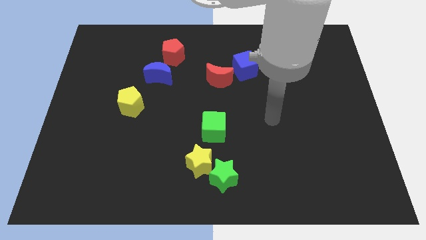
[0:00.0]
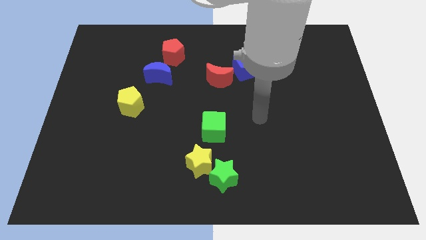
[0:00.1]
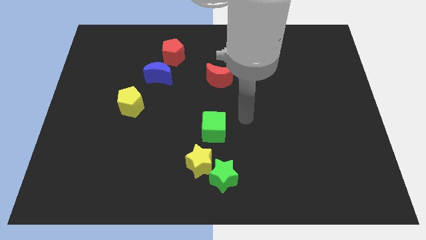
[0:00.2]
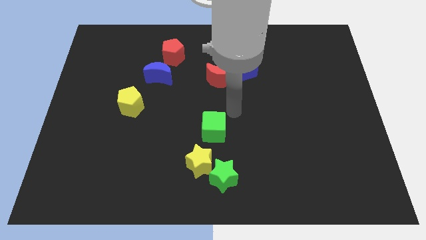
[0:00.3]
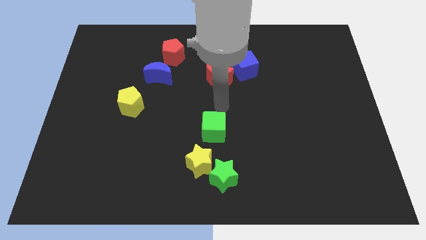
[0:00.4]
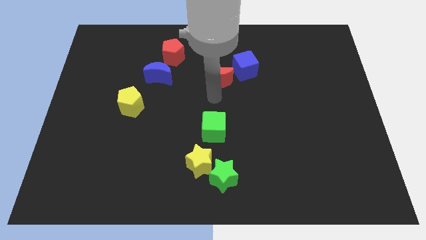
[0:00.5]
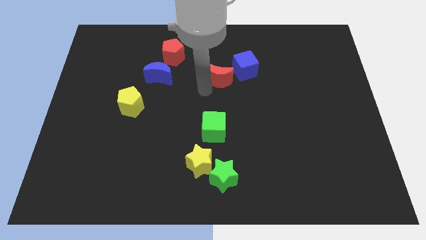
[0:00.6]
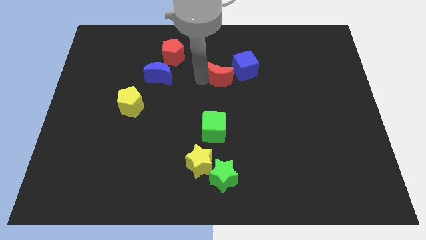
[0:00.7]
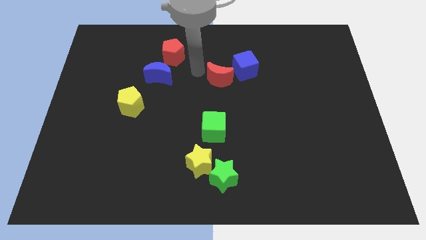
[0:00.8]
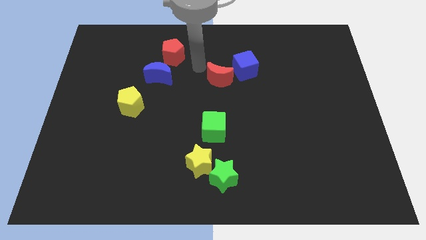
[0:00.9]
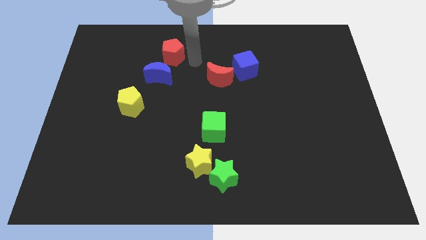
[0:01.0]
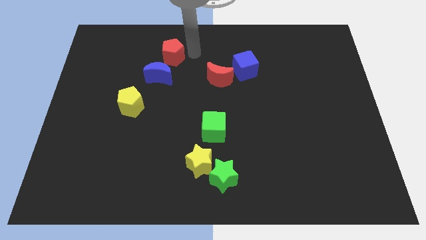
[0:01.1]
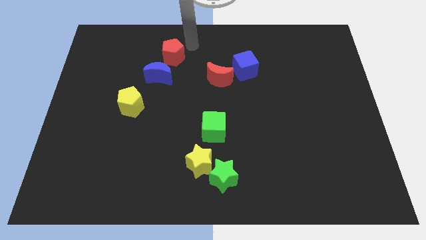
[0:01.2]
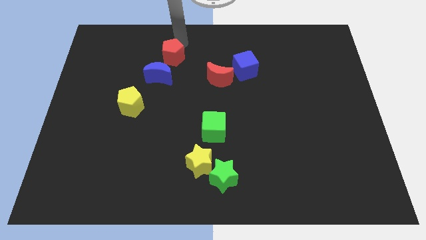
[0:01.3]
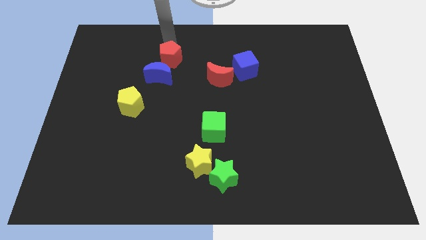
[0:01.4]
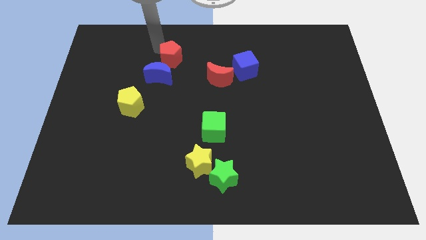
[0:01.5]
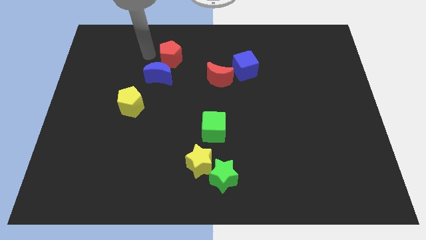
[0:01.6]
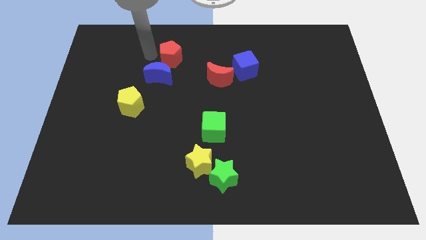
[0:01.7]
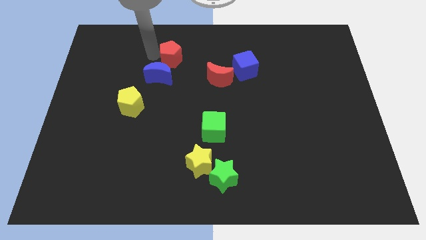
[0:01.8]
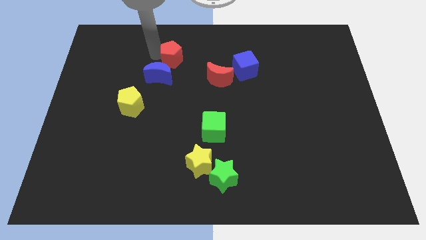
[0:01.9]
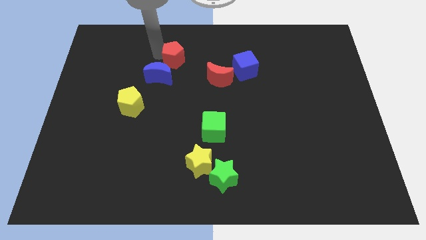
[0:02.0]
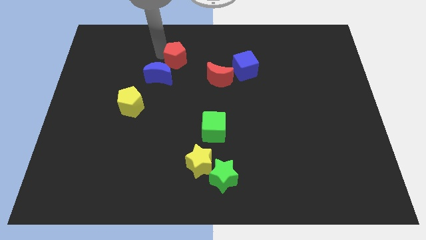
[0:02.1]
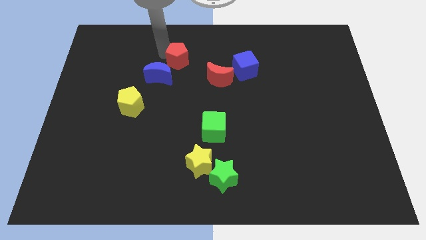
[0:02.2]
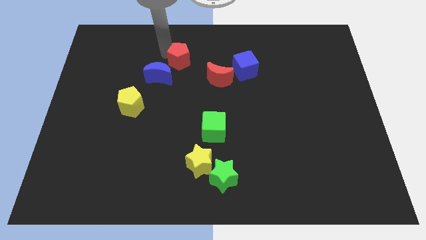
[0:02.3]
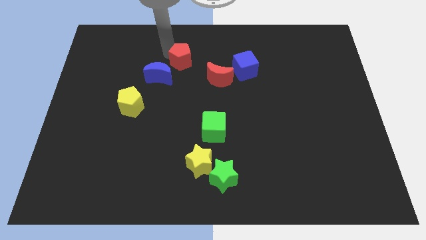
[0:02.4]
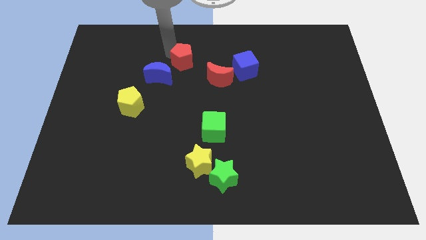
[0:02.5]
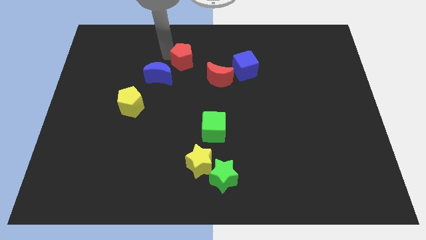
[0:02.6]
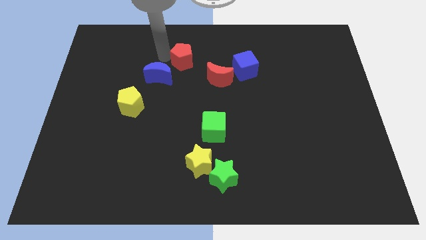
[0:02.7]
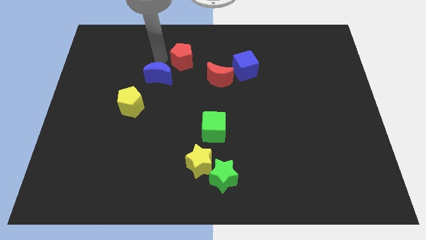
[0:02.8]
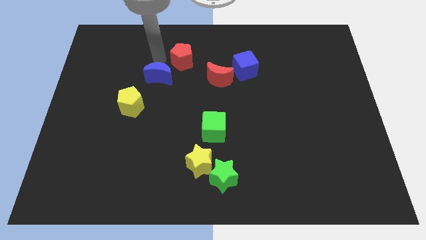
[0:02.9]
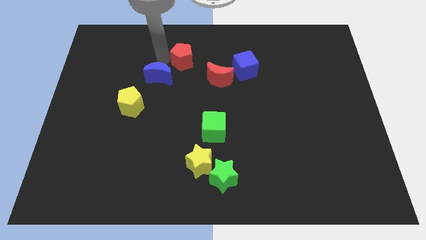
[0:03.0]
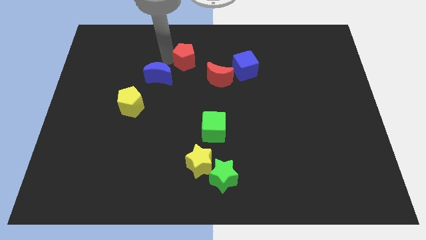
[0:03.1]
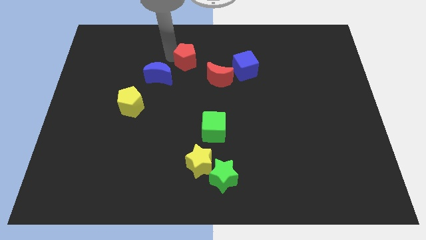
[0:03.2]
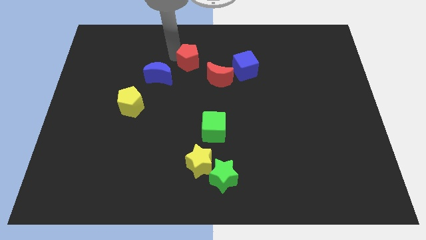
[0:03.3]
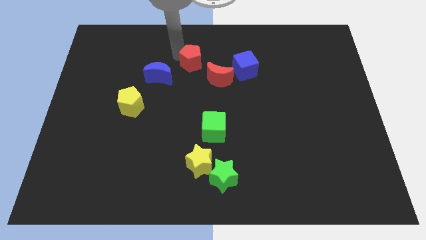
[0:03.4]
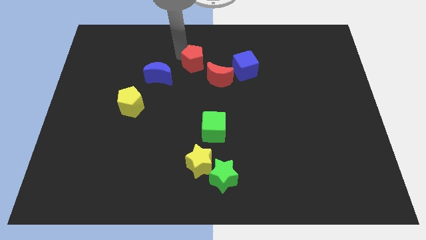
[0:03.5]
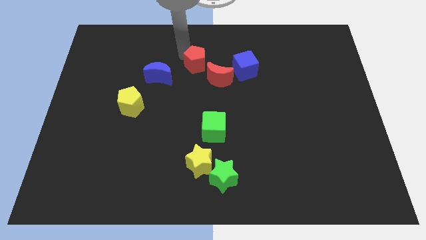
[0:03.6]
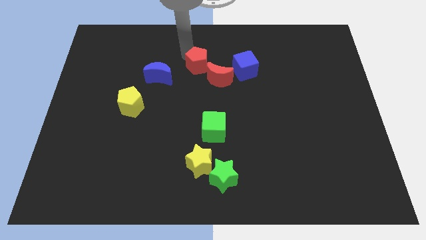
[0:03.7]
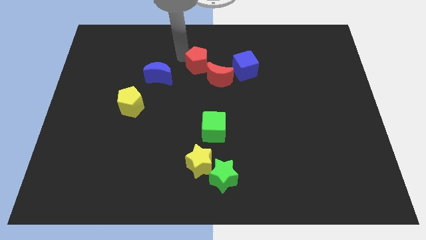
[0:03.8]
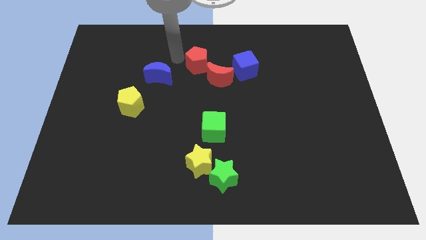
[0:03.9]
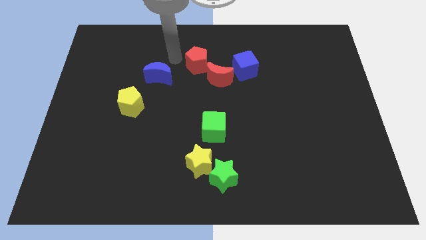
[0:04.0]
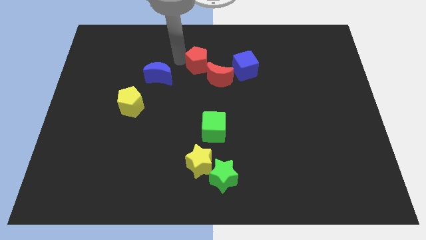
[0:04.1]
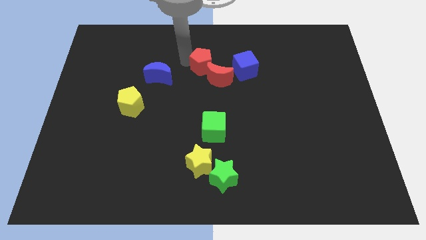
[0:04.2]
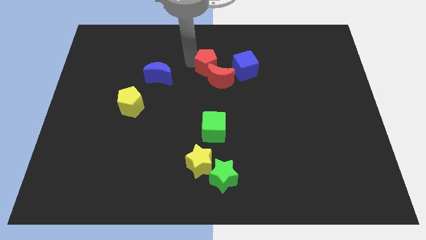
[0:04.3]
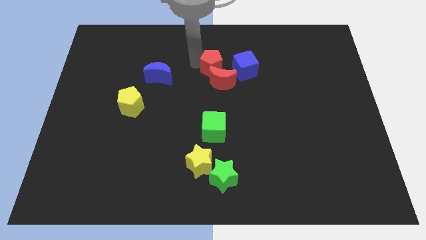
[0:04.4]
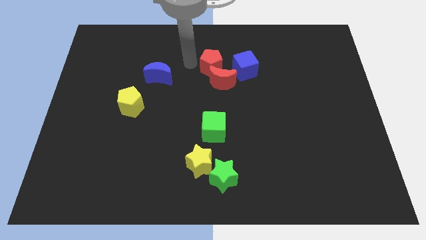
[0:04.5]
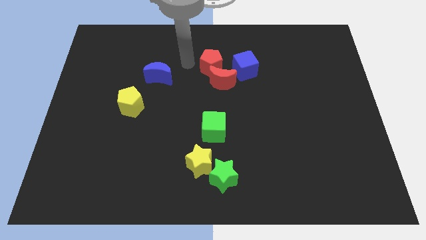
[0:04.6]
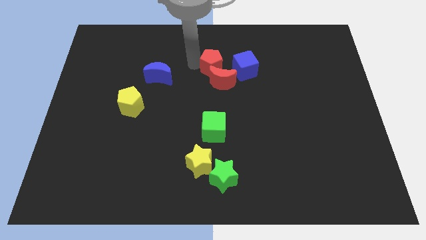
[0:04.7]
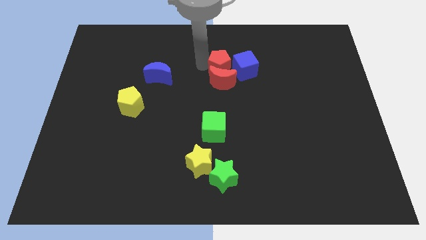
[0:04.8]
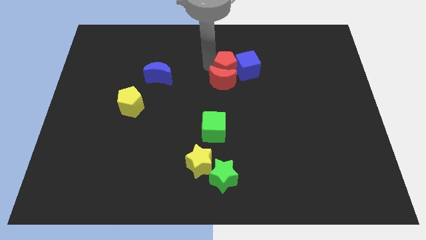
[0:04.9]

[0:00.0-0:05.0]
push the red pentagon next to the blue cube

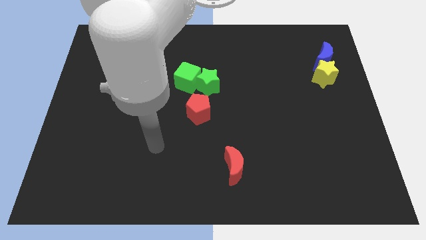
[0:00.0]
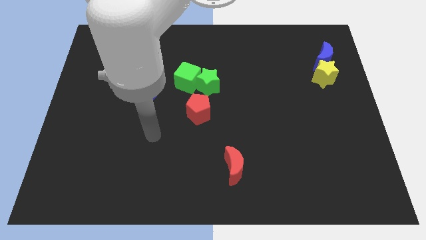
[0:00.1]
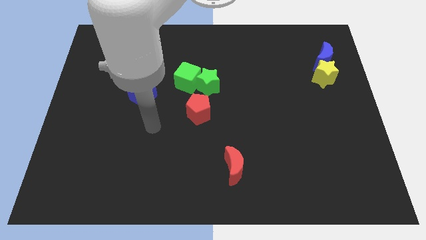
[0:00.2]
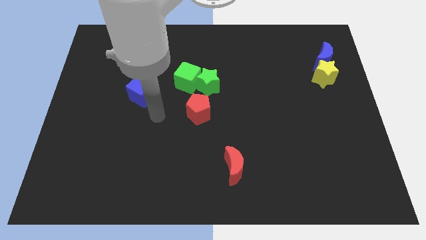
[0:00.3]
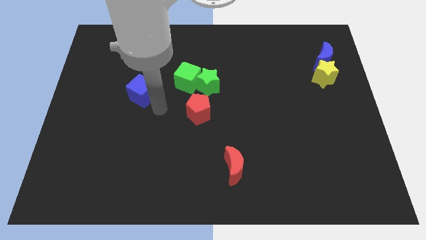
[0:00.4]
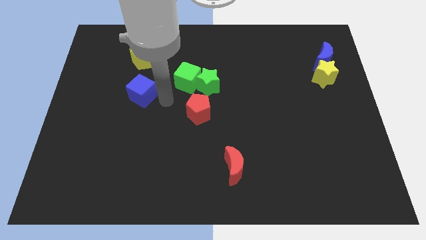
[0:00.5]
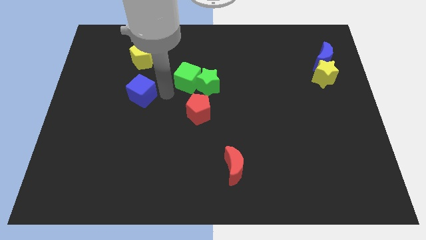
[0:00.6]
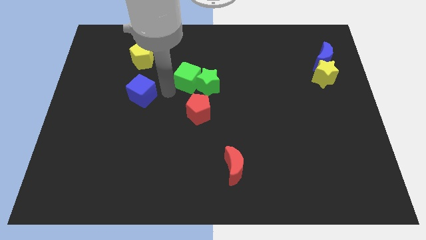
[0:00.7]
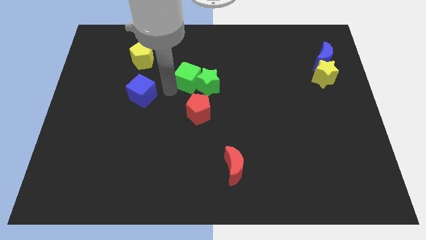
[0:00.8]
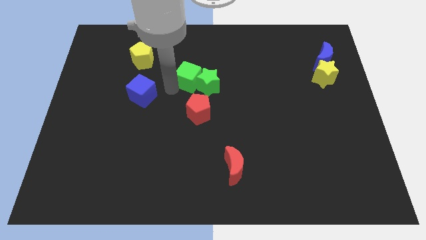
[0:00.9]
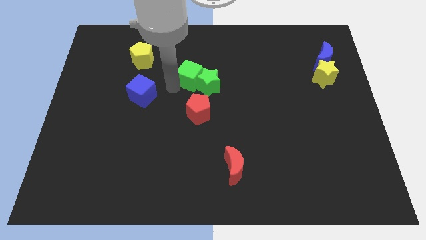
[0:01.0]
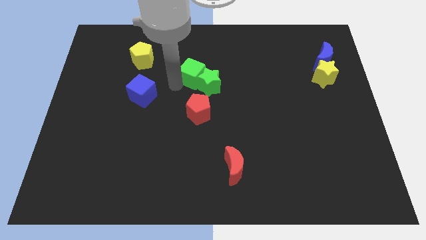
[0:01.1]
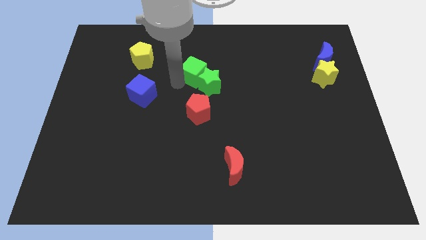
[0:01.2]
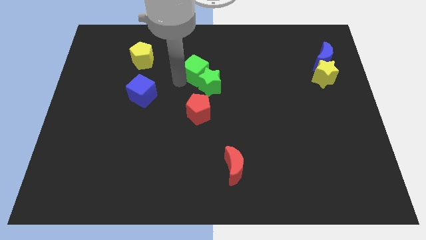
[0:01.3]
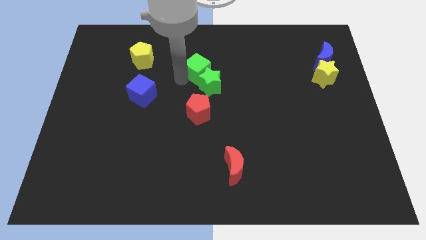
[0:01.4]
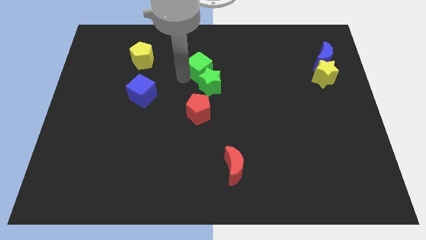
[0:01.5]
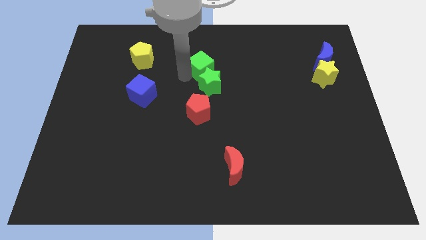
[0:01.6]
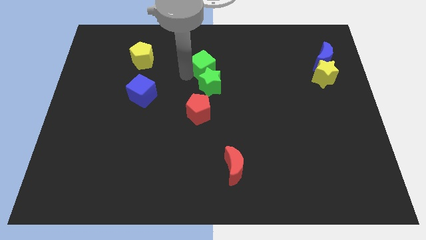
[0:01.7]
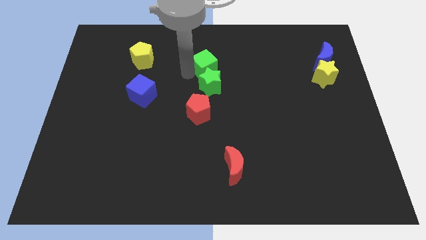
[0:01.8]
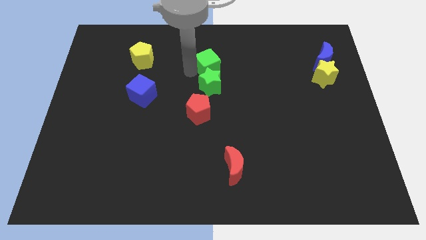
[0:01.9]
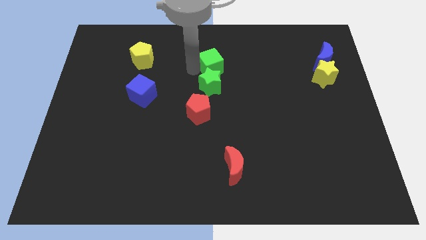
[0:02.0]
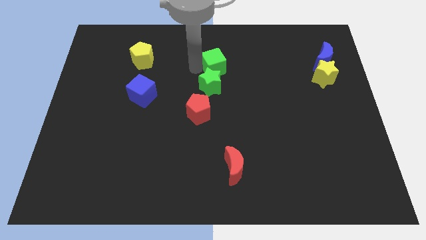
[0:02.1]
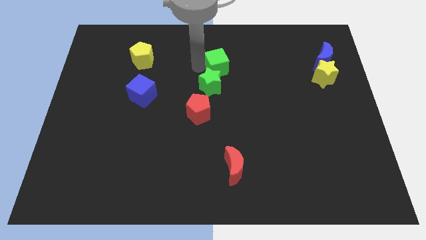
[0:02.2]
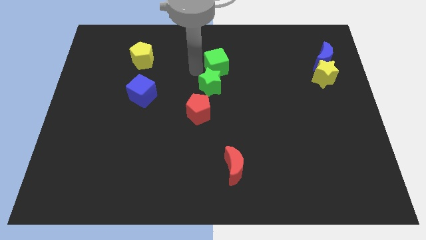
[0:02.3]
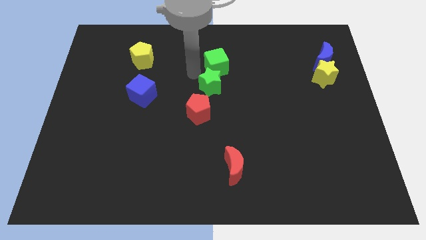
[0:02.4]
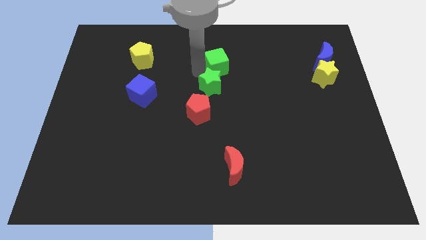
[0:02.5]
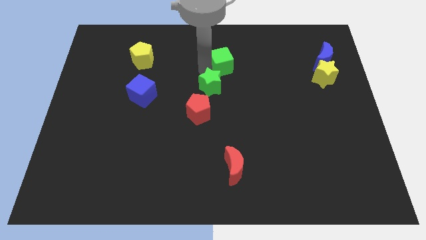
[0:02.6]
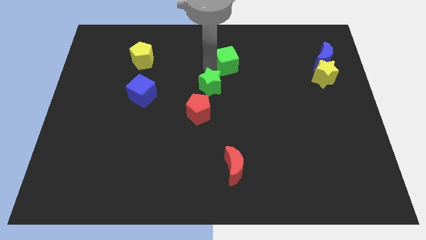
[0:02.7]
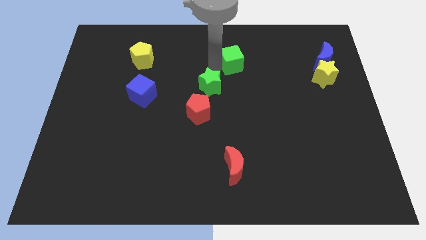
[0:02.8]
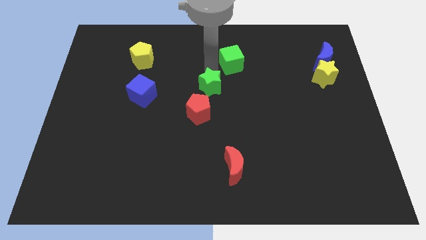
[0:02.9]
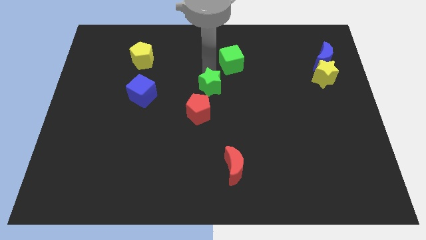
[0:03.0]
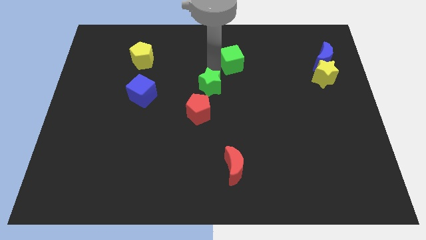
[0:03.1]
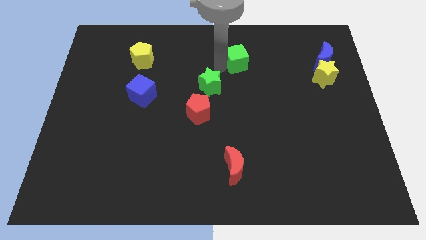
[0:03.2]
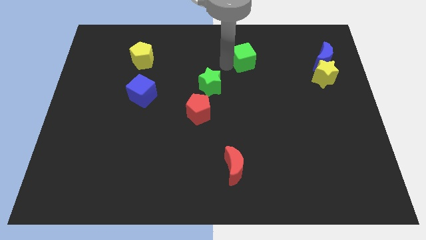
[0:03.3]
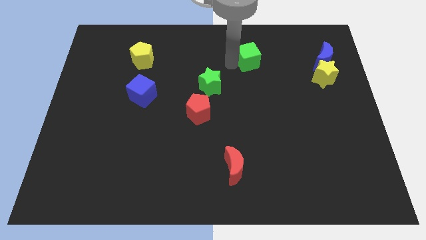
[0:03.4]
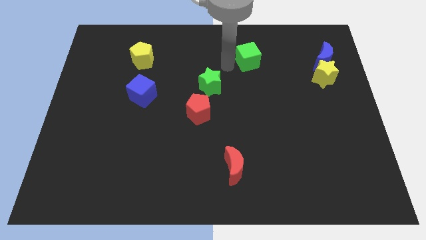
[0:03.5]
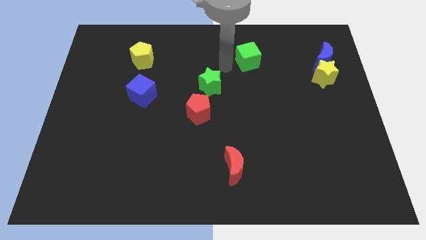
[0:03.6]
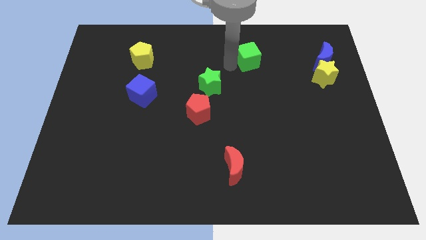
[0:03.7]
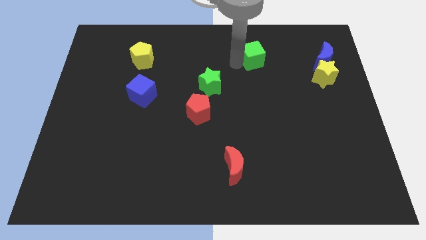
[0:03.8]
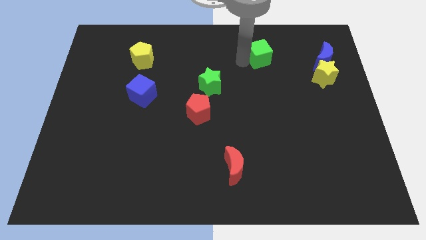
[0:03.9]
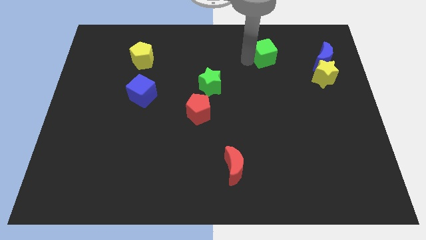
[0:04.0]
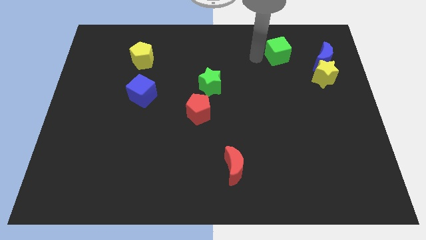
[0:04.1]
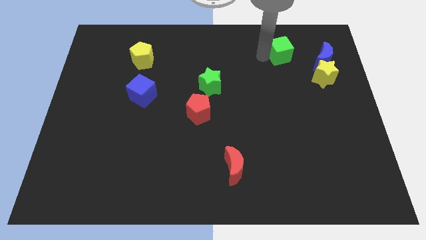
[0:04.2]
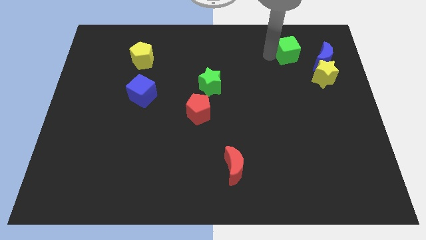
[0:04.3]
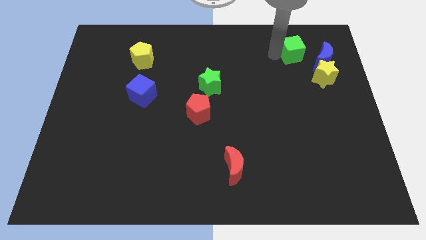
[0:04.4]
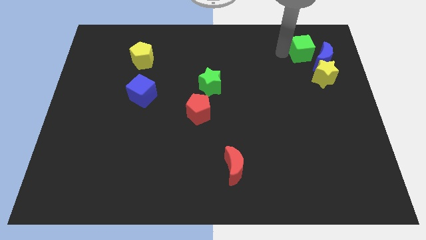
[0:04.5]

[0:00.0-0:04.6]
slide the green cube to the blue moon
